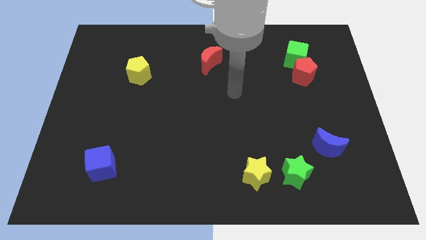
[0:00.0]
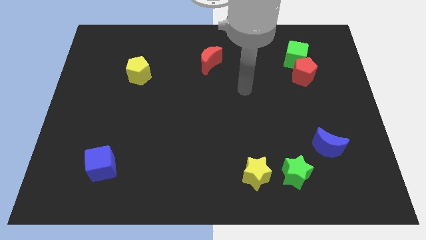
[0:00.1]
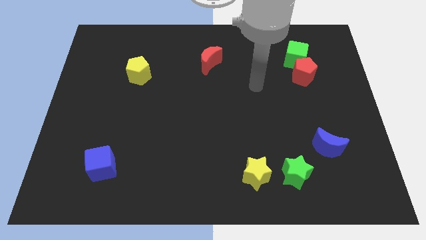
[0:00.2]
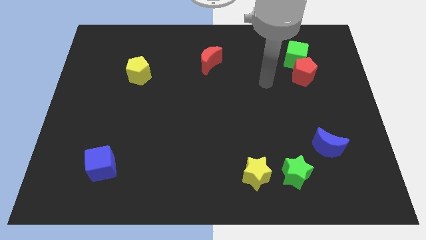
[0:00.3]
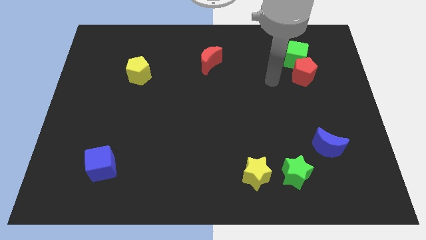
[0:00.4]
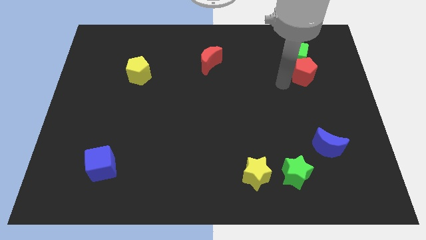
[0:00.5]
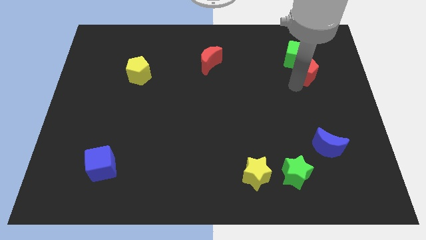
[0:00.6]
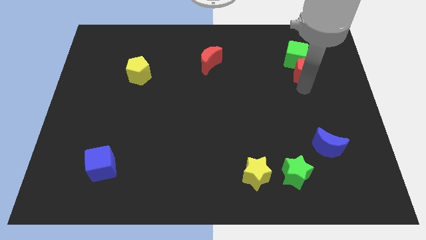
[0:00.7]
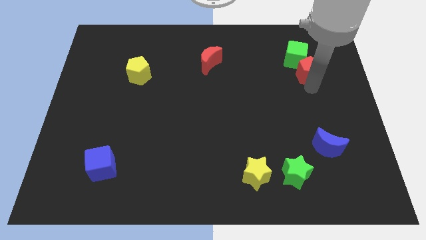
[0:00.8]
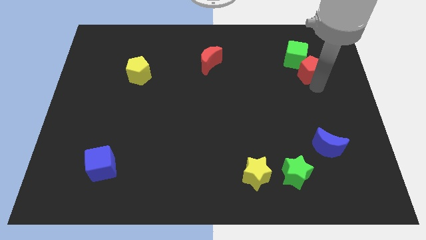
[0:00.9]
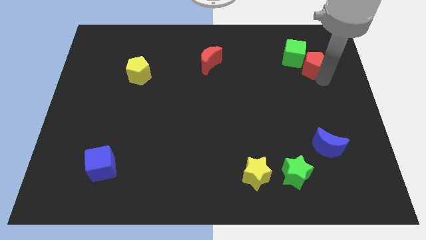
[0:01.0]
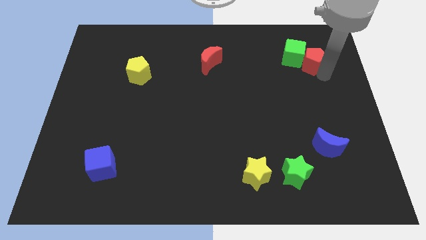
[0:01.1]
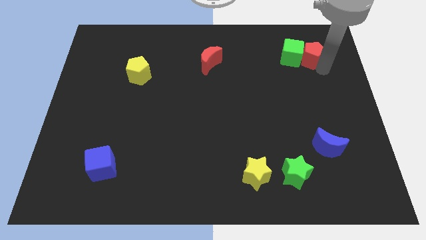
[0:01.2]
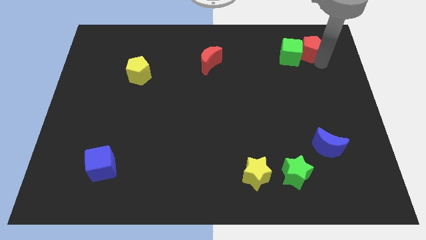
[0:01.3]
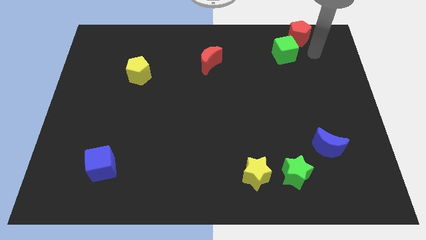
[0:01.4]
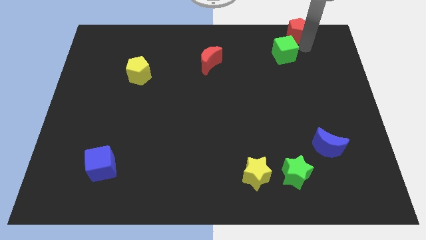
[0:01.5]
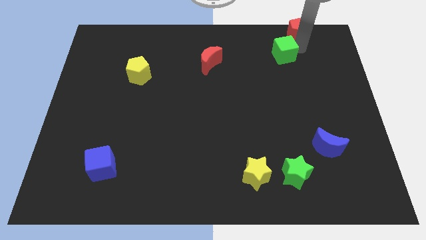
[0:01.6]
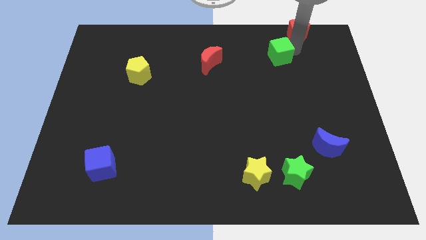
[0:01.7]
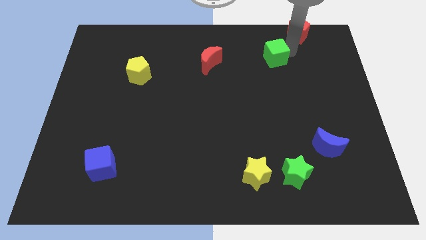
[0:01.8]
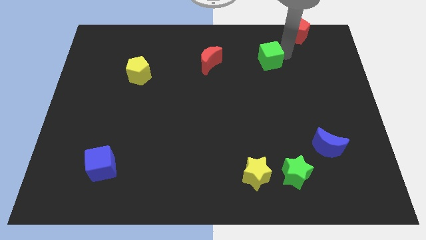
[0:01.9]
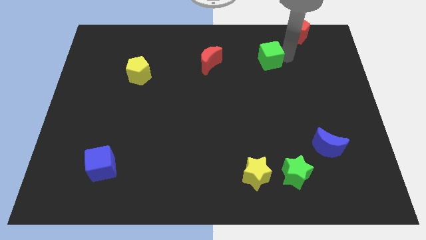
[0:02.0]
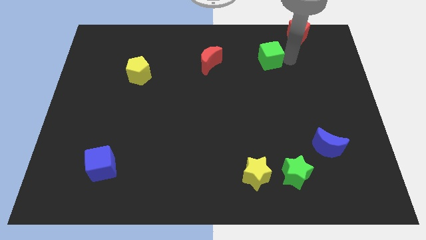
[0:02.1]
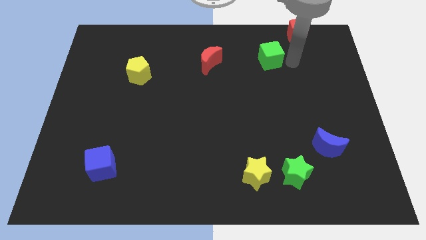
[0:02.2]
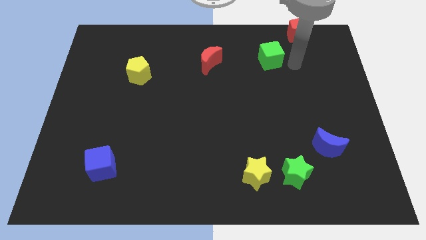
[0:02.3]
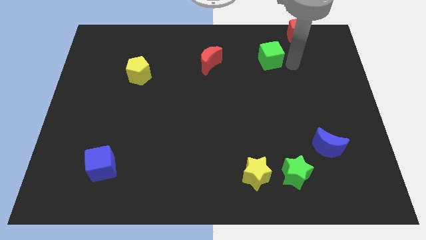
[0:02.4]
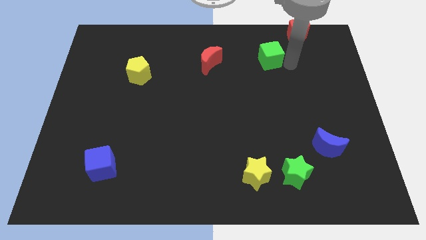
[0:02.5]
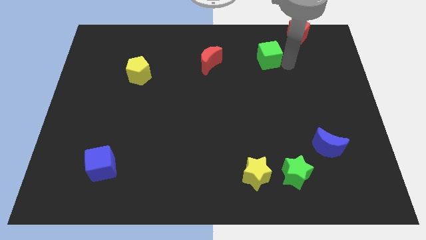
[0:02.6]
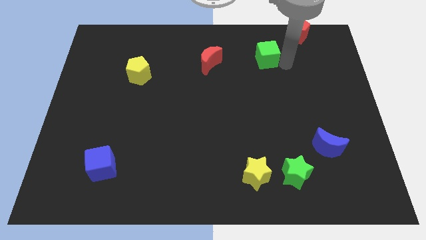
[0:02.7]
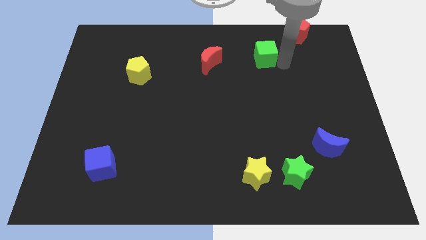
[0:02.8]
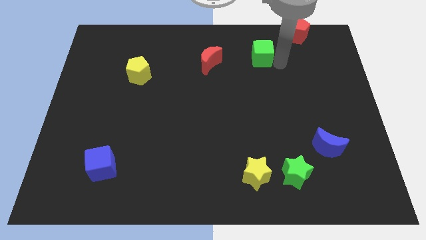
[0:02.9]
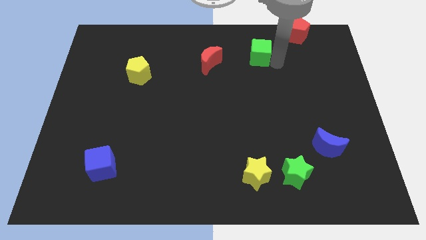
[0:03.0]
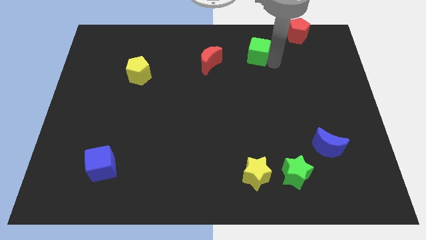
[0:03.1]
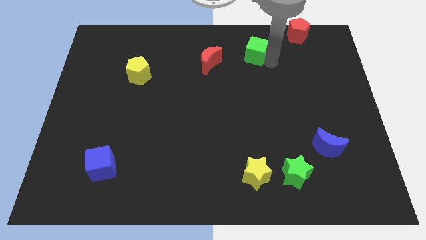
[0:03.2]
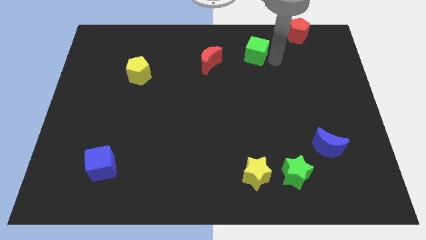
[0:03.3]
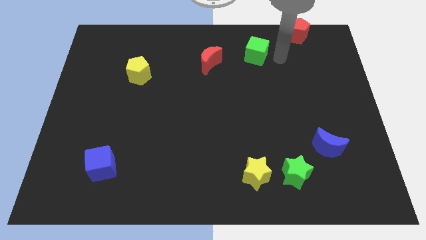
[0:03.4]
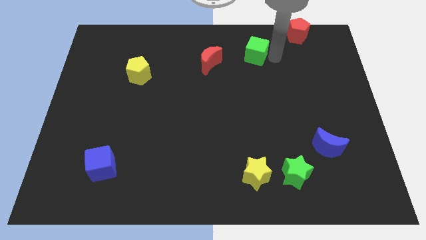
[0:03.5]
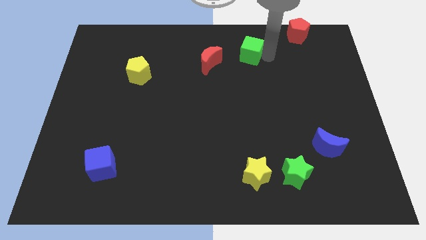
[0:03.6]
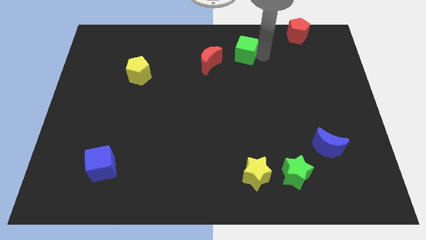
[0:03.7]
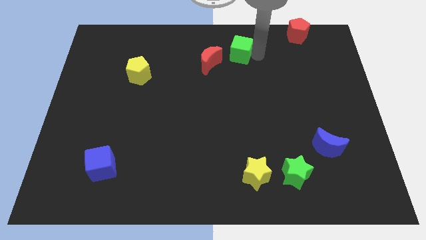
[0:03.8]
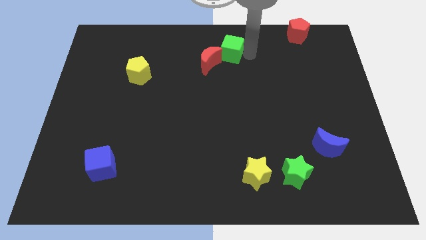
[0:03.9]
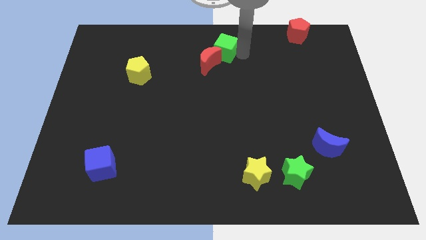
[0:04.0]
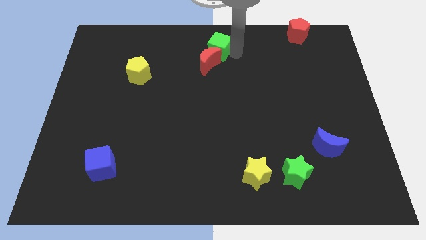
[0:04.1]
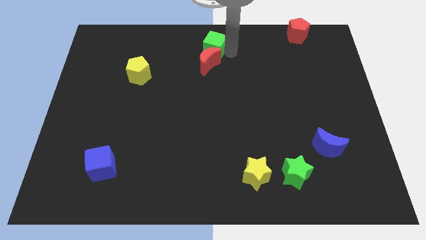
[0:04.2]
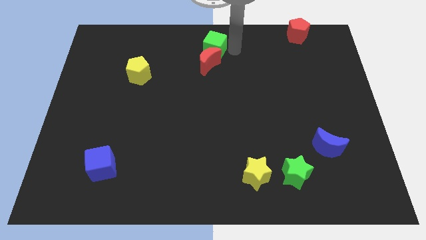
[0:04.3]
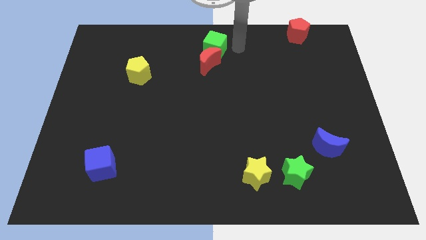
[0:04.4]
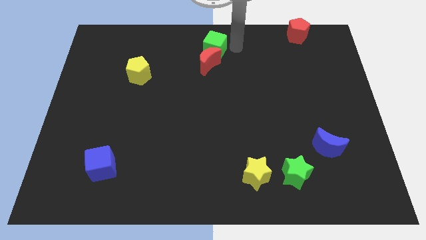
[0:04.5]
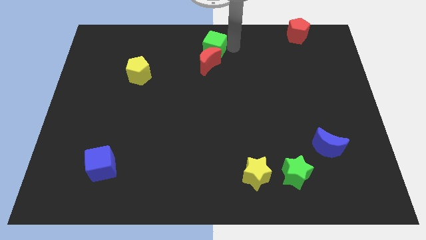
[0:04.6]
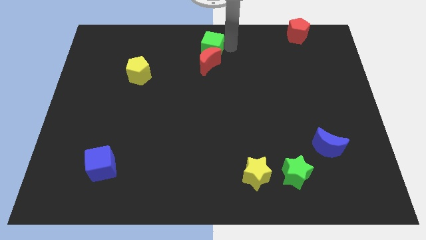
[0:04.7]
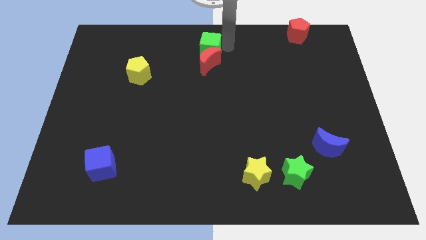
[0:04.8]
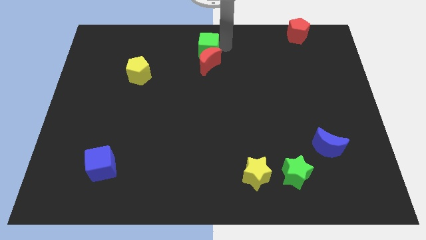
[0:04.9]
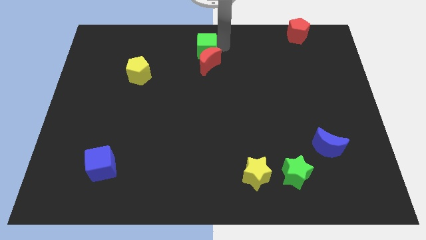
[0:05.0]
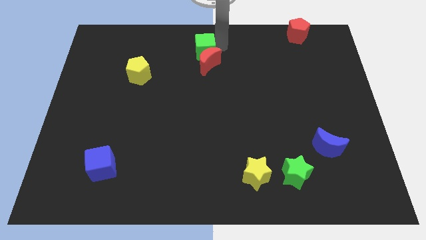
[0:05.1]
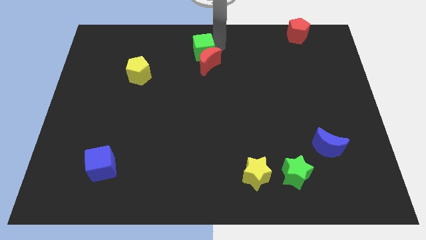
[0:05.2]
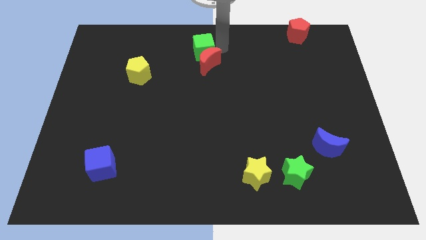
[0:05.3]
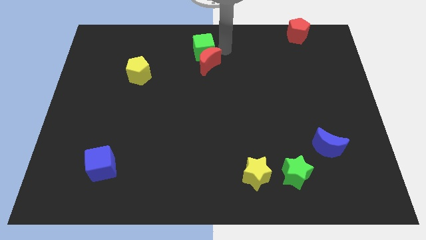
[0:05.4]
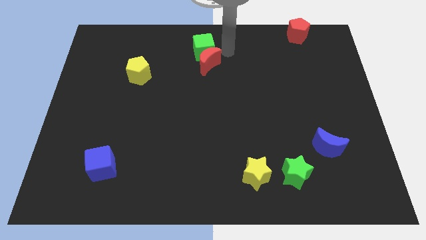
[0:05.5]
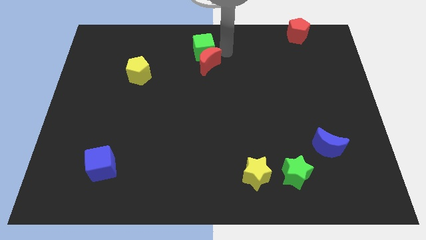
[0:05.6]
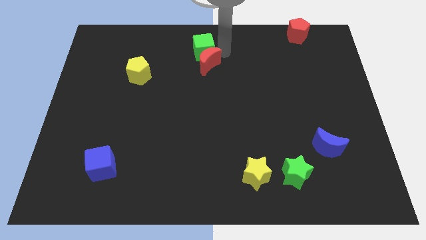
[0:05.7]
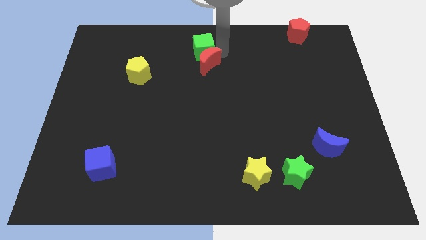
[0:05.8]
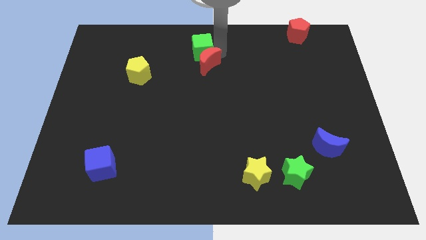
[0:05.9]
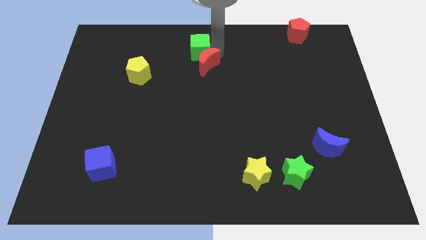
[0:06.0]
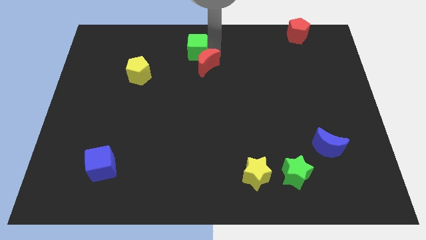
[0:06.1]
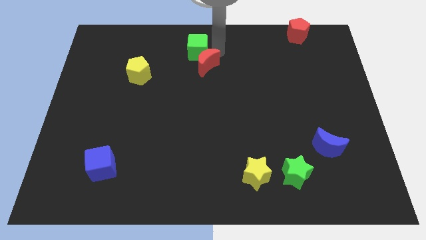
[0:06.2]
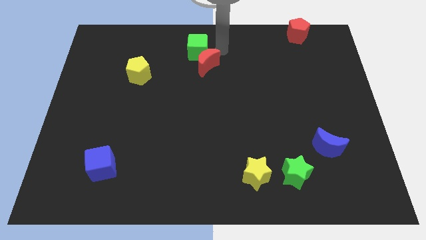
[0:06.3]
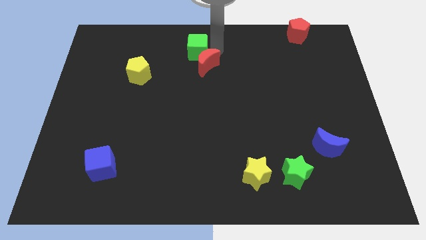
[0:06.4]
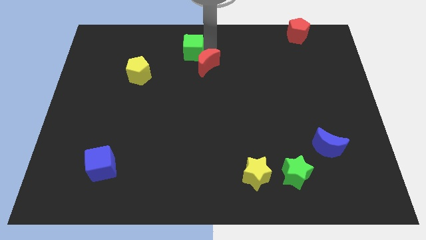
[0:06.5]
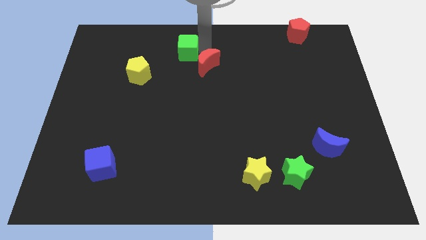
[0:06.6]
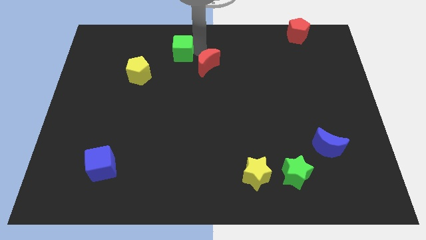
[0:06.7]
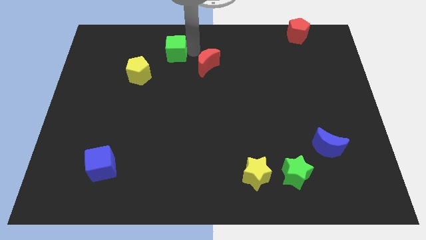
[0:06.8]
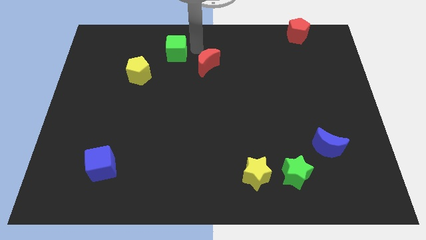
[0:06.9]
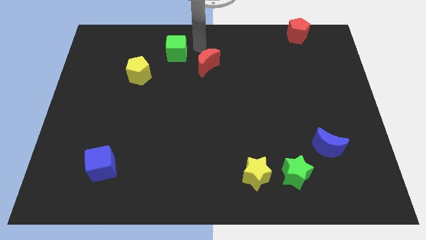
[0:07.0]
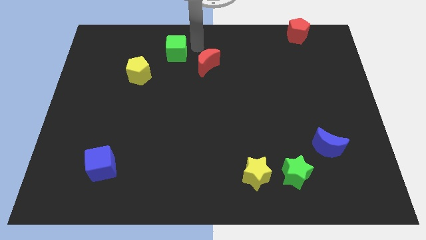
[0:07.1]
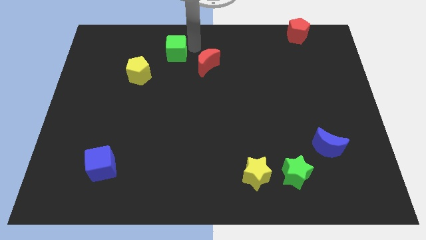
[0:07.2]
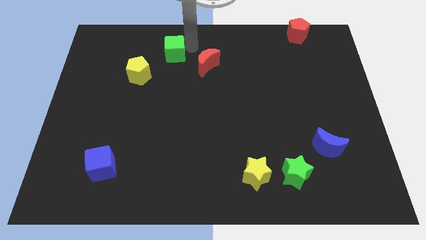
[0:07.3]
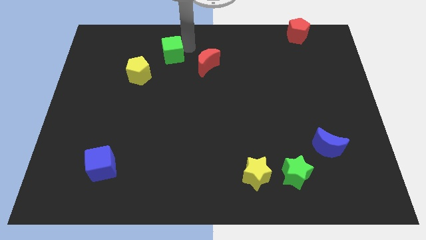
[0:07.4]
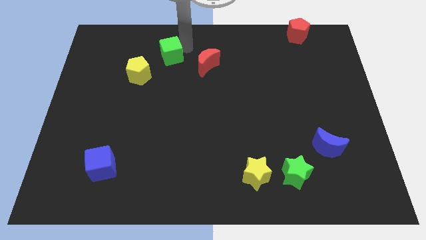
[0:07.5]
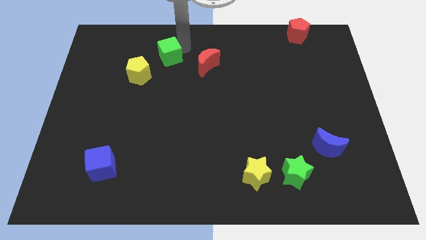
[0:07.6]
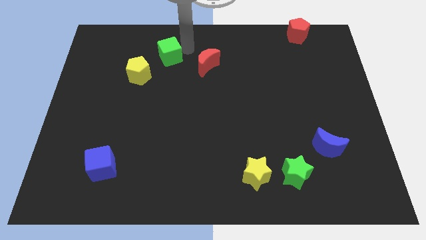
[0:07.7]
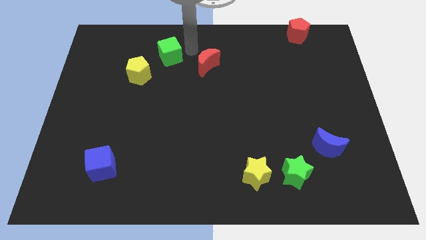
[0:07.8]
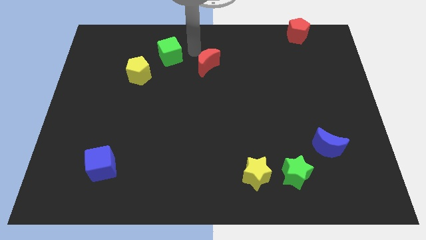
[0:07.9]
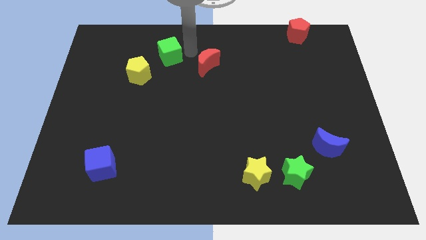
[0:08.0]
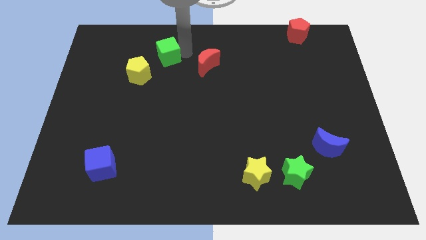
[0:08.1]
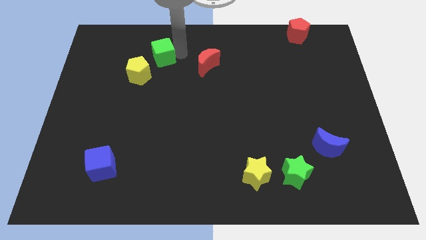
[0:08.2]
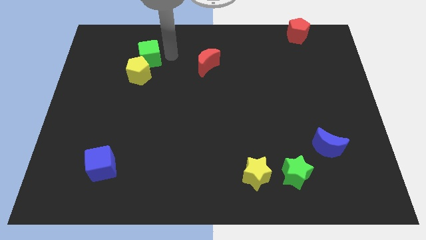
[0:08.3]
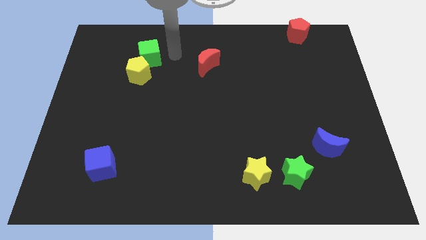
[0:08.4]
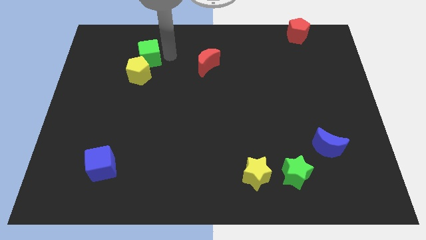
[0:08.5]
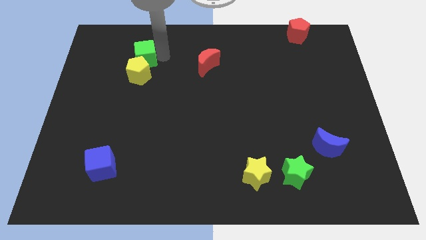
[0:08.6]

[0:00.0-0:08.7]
move the green cube to the top left of the yellow pentagon
